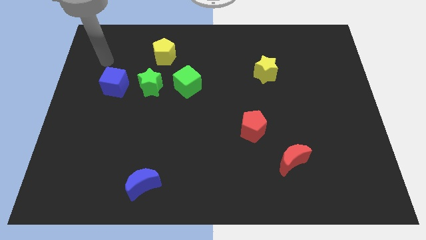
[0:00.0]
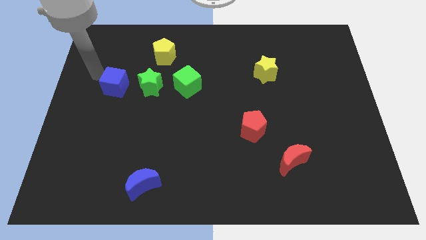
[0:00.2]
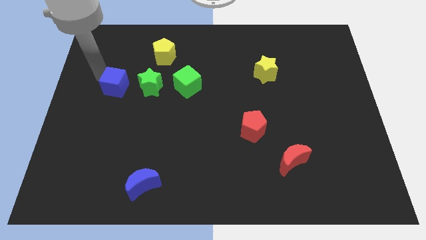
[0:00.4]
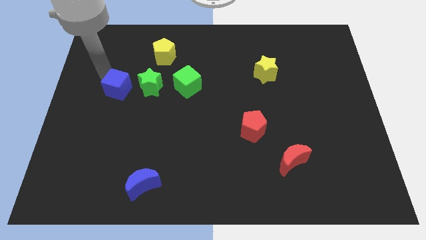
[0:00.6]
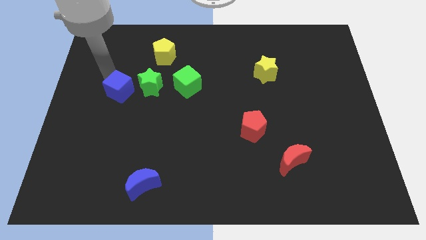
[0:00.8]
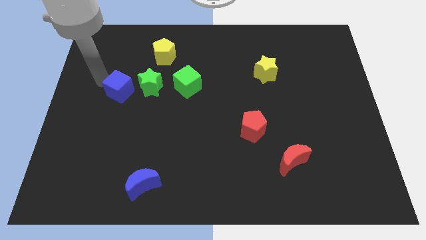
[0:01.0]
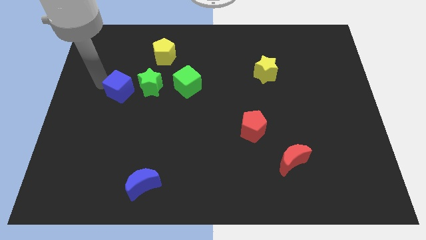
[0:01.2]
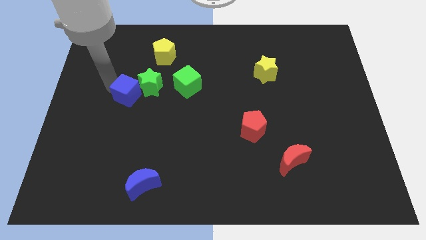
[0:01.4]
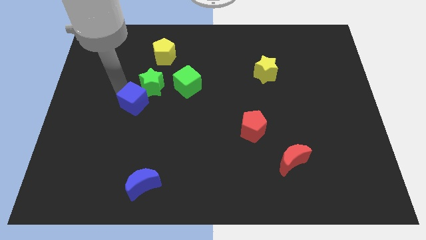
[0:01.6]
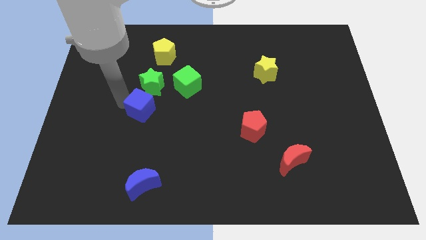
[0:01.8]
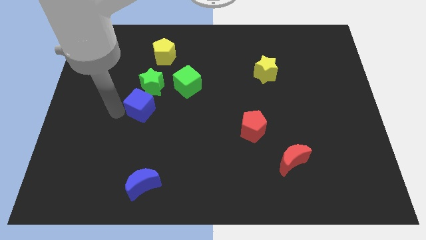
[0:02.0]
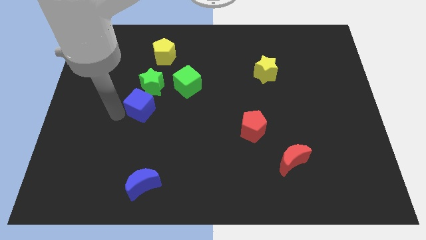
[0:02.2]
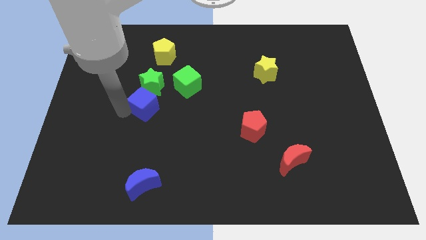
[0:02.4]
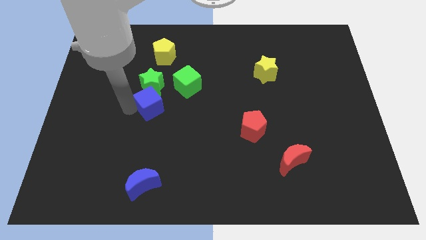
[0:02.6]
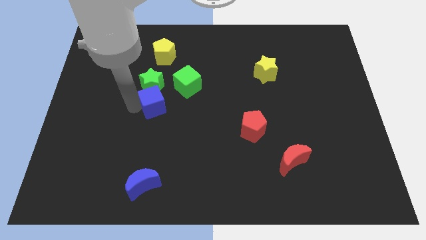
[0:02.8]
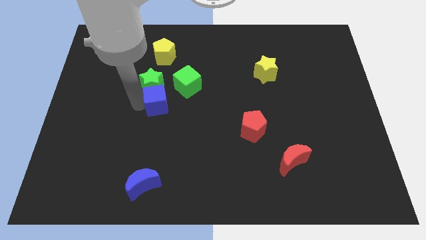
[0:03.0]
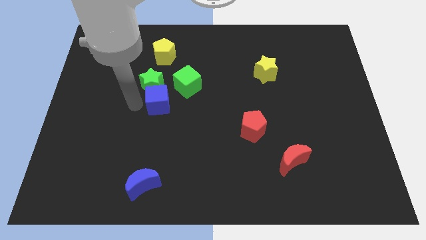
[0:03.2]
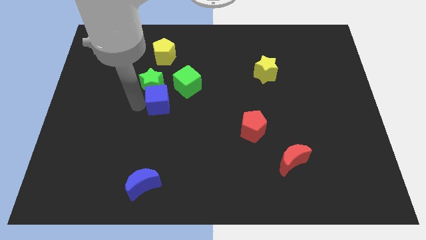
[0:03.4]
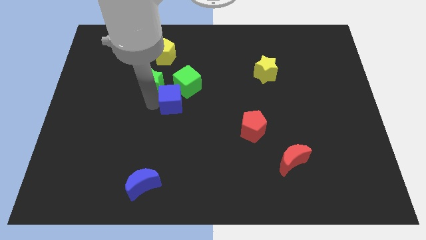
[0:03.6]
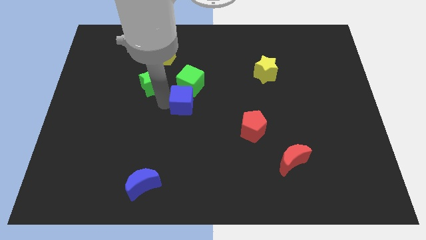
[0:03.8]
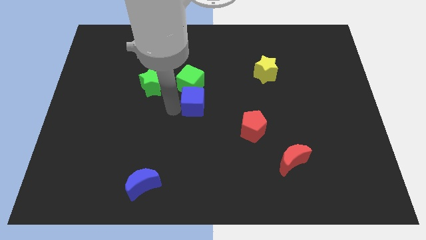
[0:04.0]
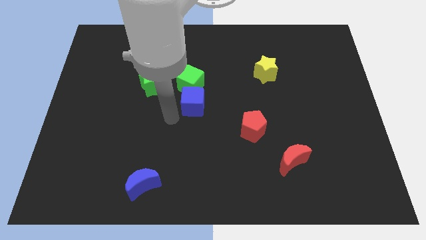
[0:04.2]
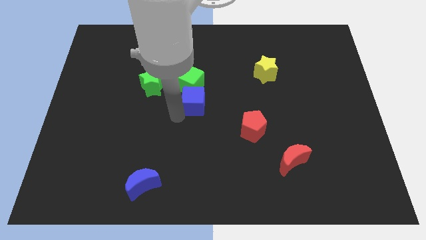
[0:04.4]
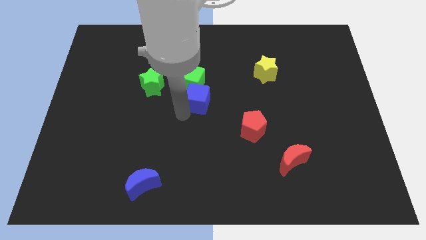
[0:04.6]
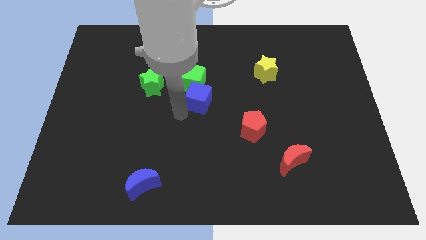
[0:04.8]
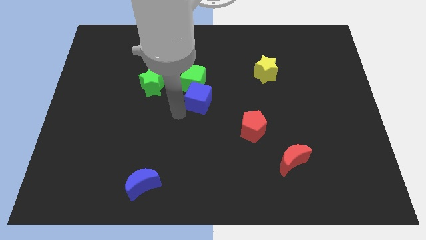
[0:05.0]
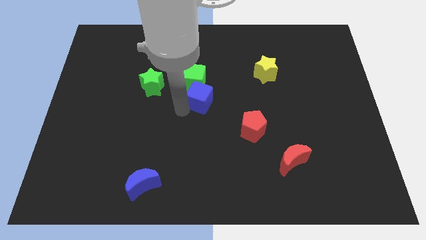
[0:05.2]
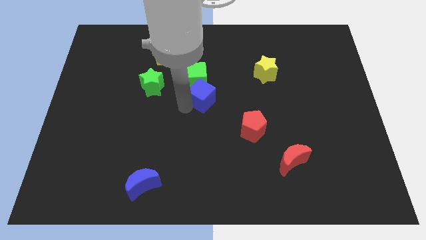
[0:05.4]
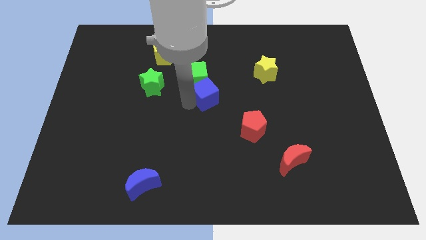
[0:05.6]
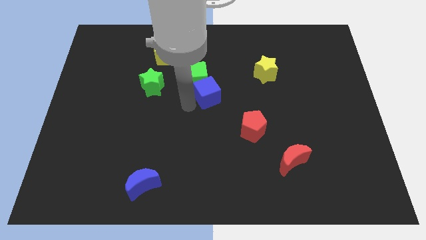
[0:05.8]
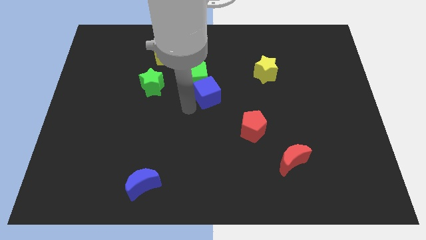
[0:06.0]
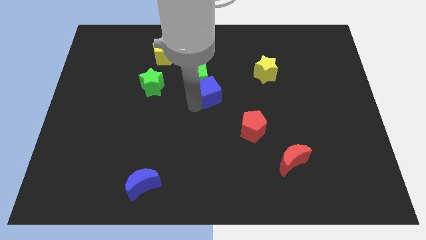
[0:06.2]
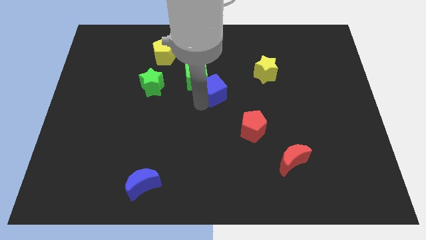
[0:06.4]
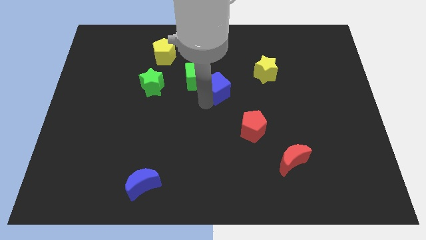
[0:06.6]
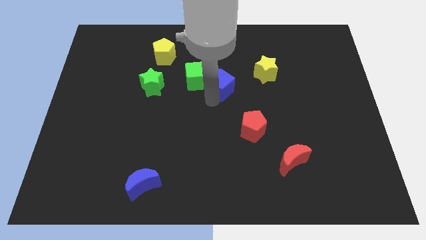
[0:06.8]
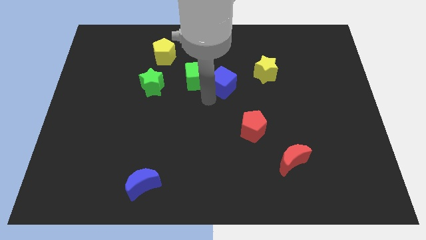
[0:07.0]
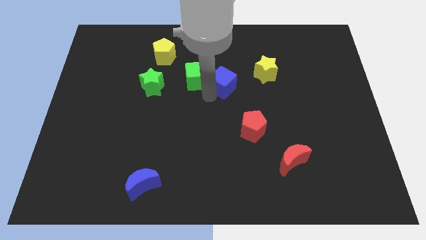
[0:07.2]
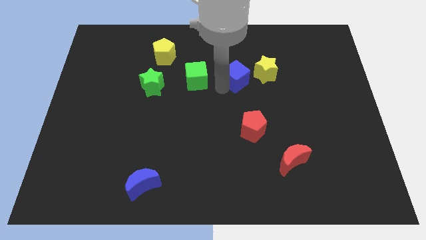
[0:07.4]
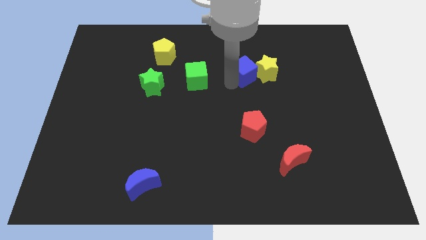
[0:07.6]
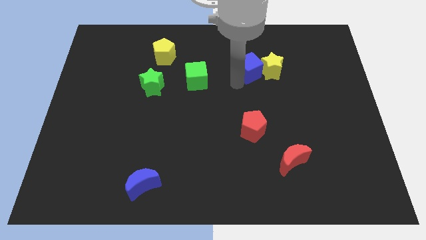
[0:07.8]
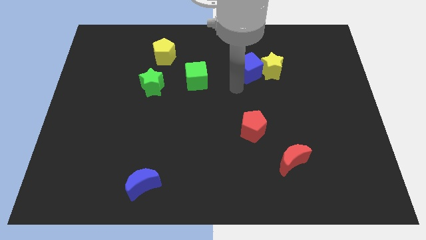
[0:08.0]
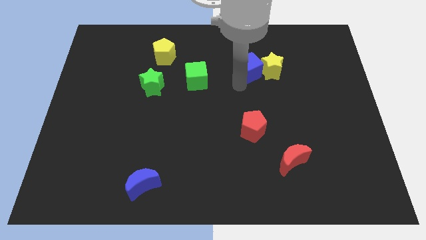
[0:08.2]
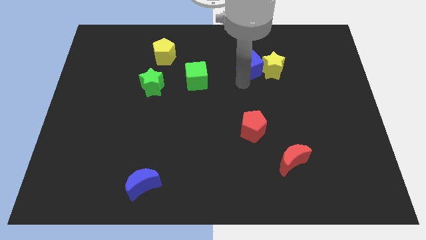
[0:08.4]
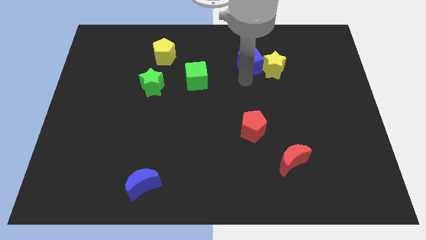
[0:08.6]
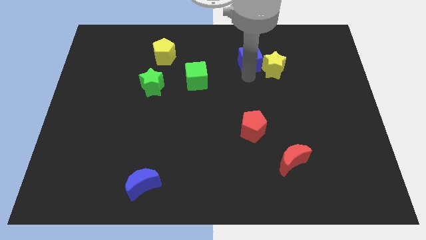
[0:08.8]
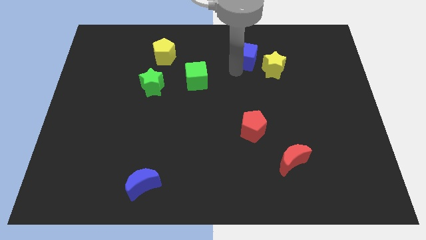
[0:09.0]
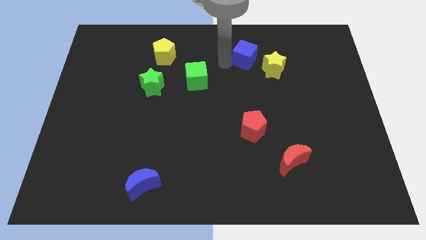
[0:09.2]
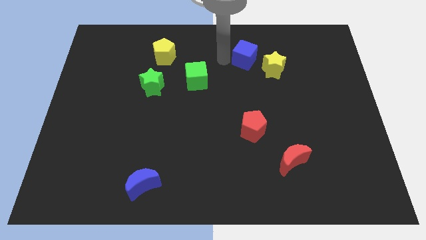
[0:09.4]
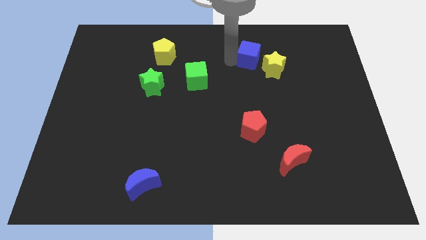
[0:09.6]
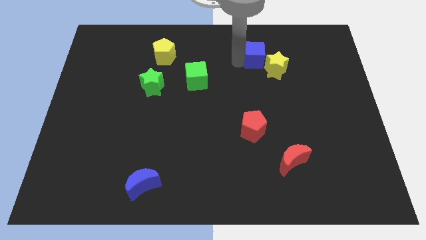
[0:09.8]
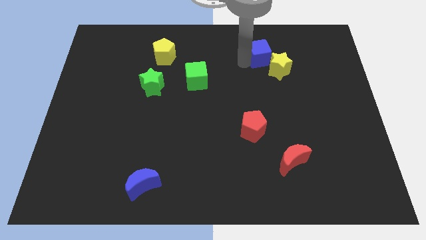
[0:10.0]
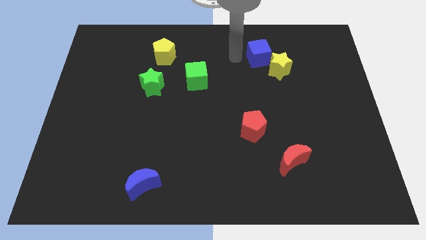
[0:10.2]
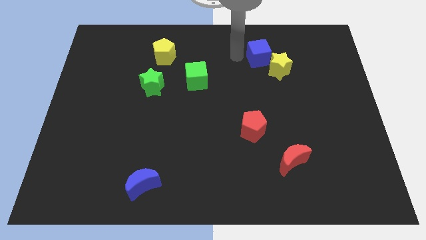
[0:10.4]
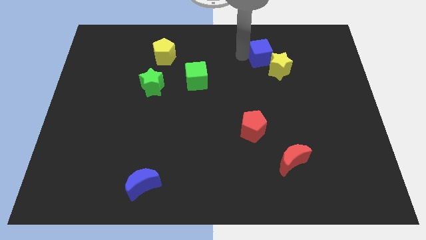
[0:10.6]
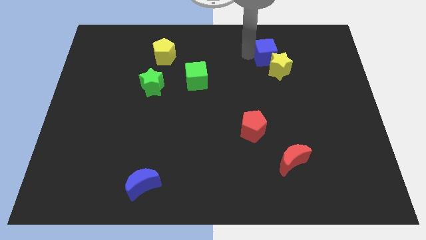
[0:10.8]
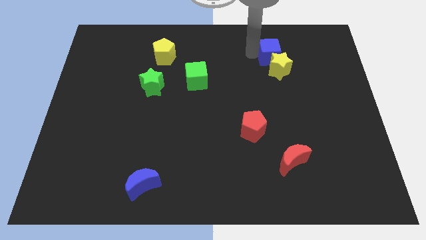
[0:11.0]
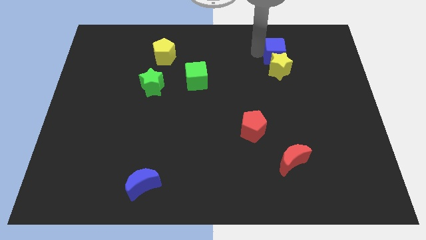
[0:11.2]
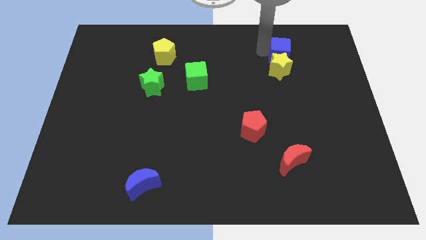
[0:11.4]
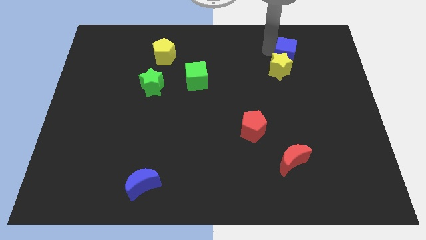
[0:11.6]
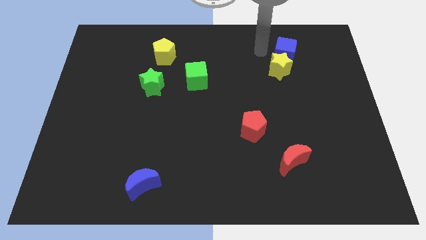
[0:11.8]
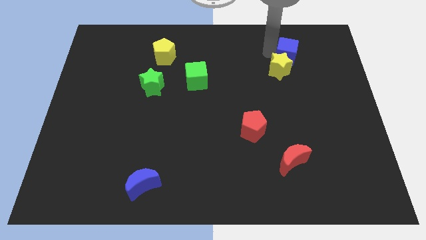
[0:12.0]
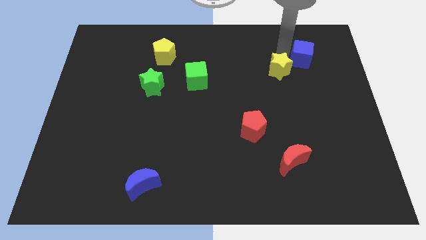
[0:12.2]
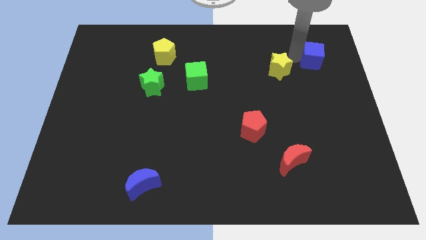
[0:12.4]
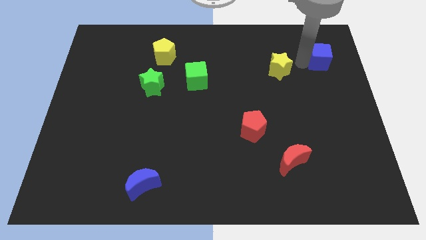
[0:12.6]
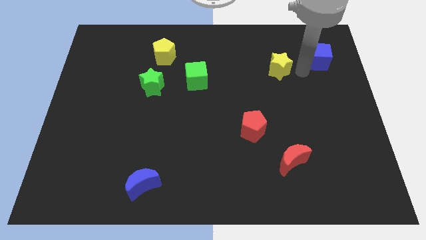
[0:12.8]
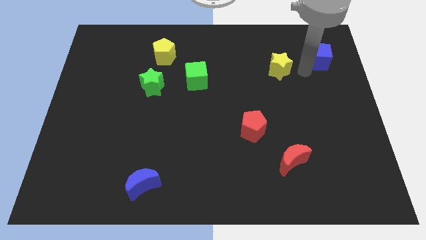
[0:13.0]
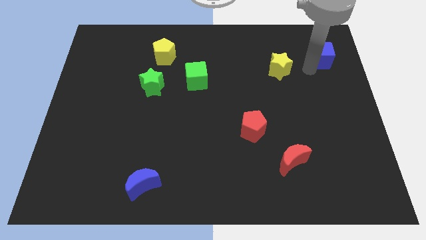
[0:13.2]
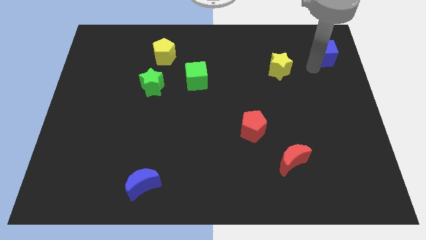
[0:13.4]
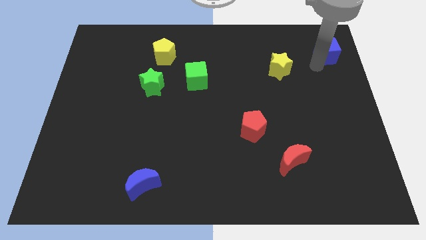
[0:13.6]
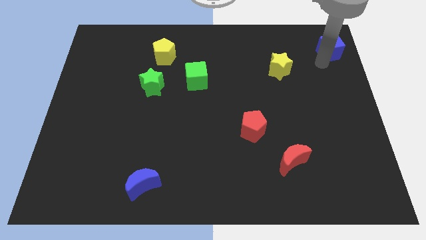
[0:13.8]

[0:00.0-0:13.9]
push the blue cube to the upper right corner
